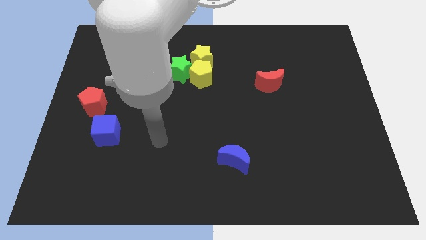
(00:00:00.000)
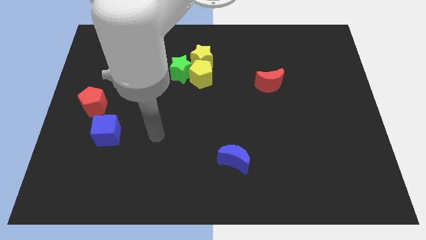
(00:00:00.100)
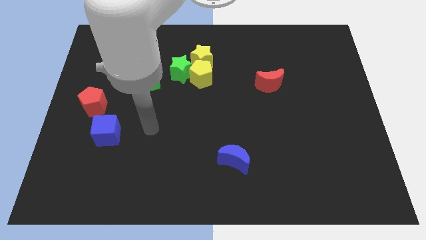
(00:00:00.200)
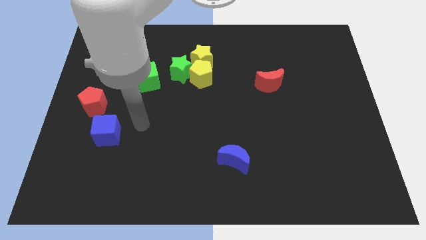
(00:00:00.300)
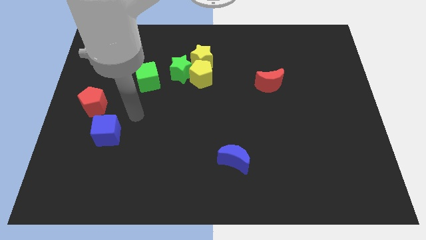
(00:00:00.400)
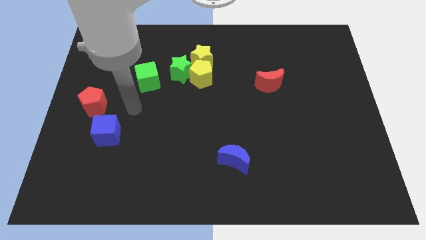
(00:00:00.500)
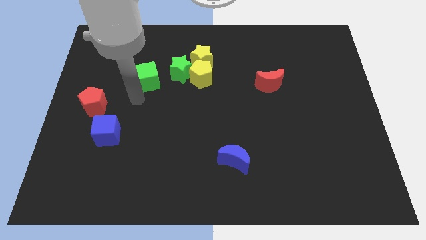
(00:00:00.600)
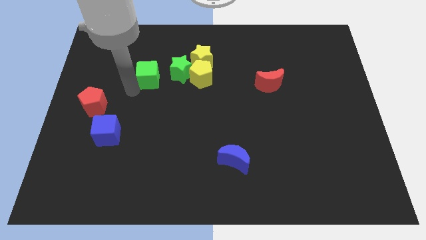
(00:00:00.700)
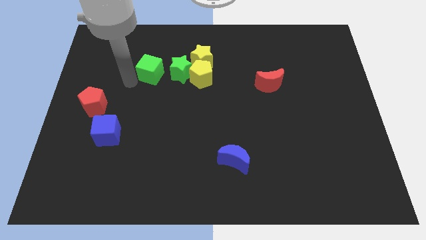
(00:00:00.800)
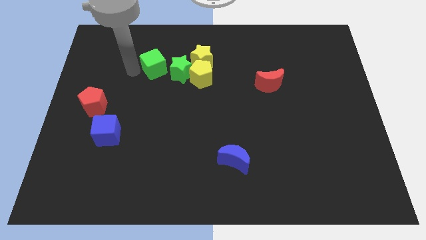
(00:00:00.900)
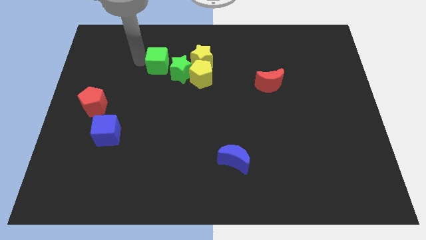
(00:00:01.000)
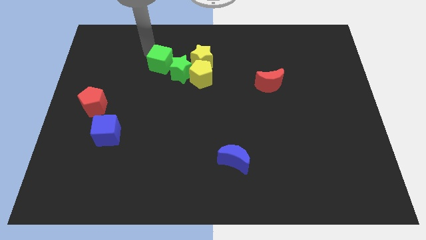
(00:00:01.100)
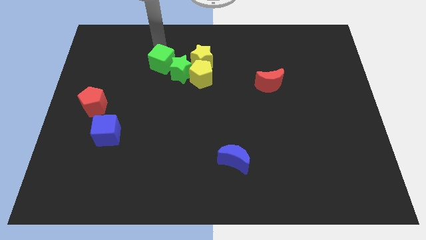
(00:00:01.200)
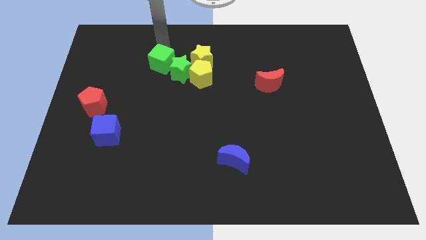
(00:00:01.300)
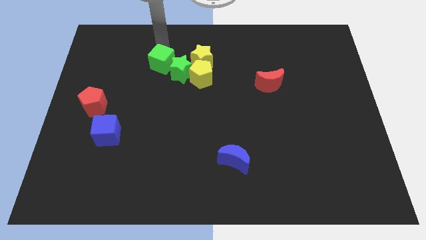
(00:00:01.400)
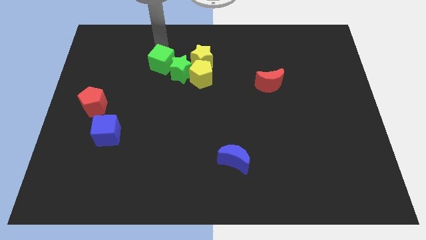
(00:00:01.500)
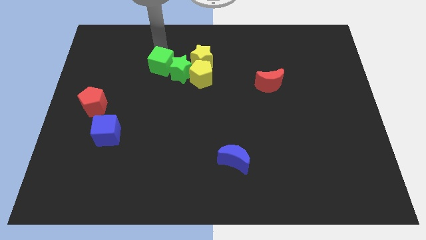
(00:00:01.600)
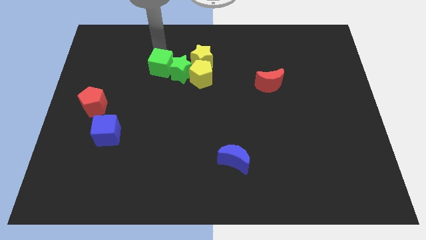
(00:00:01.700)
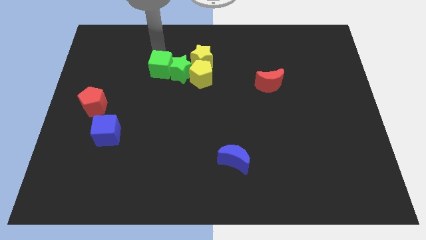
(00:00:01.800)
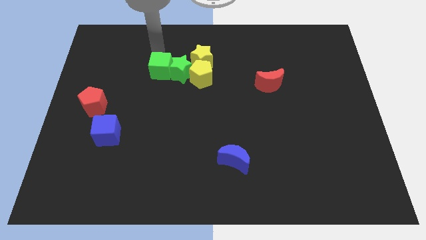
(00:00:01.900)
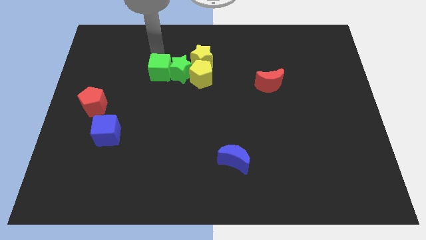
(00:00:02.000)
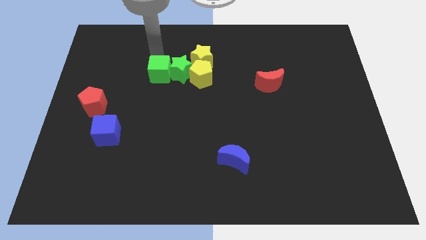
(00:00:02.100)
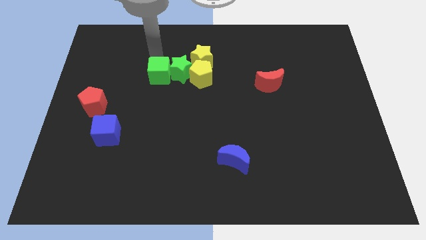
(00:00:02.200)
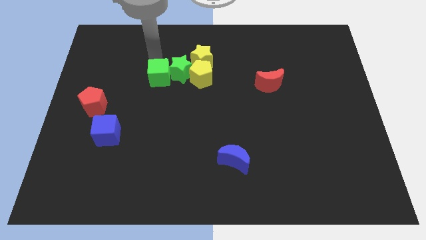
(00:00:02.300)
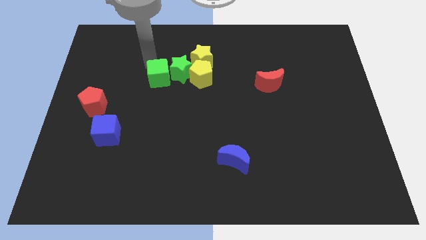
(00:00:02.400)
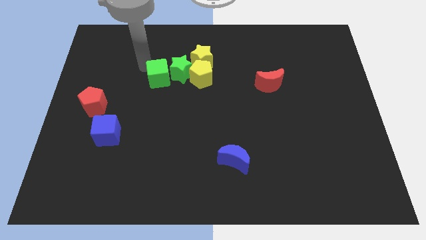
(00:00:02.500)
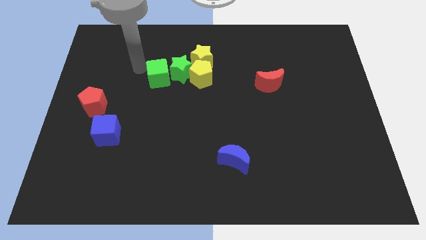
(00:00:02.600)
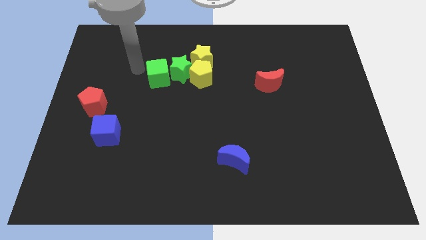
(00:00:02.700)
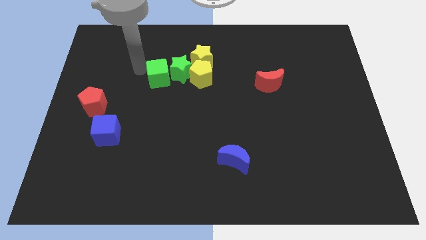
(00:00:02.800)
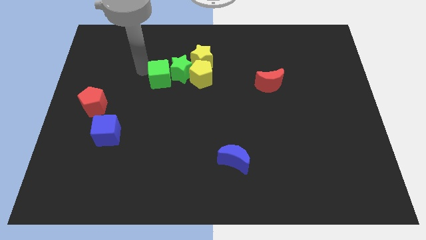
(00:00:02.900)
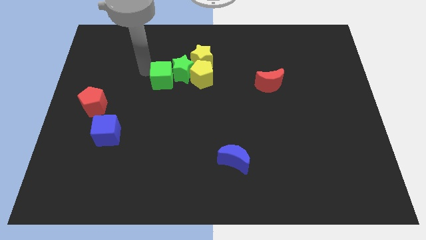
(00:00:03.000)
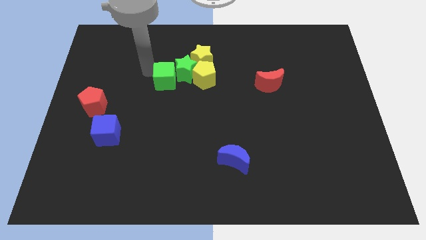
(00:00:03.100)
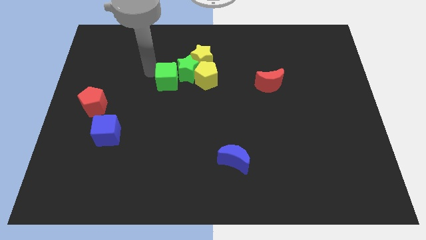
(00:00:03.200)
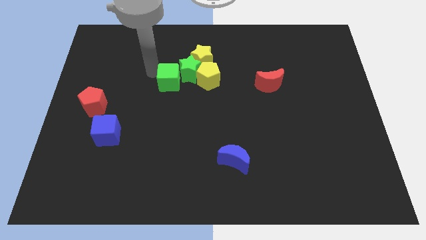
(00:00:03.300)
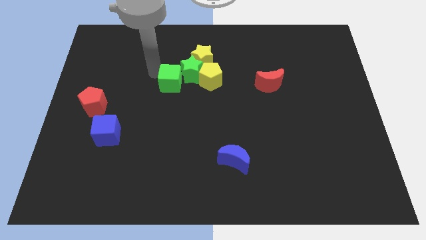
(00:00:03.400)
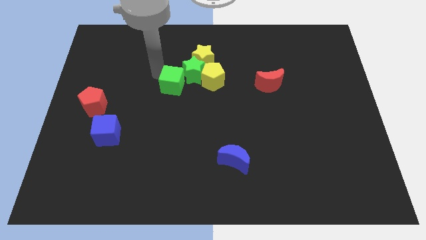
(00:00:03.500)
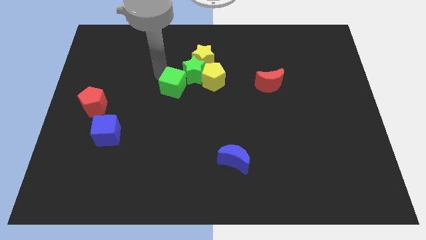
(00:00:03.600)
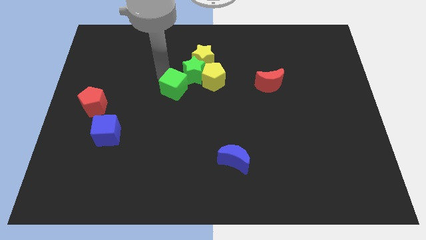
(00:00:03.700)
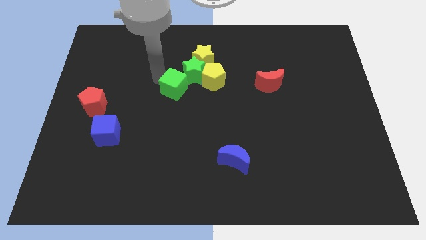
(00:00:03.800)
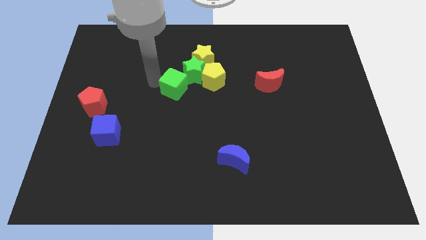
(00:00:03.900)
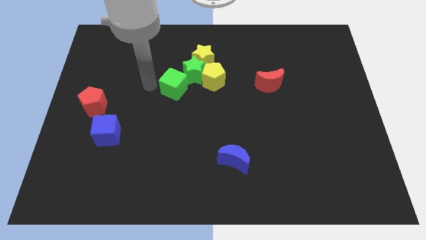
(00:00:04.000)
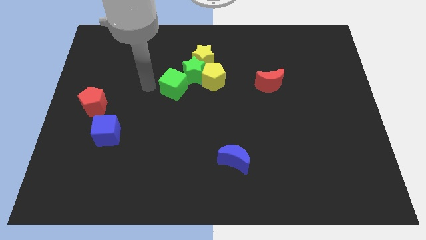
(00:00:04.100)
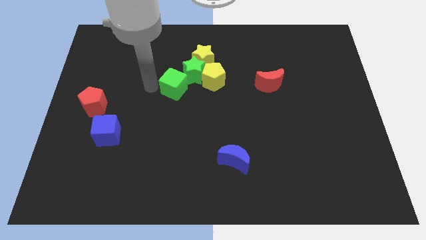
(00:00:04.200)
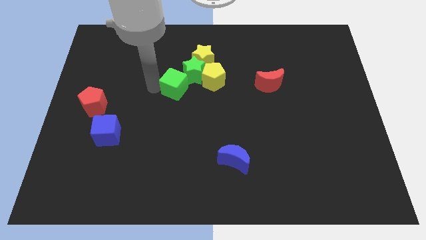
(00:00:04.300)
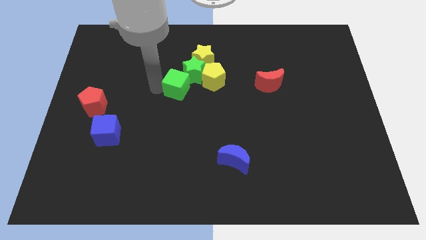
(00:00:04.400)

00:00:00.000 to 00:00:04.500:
slightly move the green cube to the right

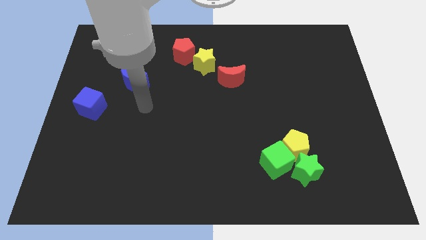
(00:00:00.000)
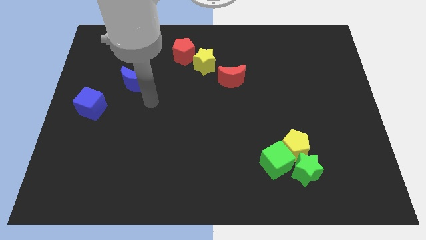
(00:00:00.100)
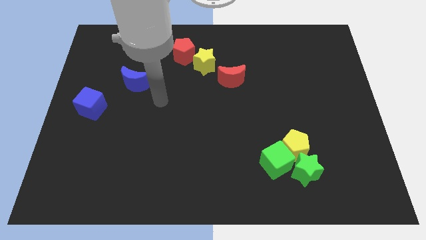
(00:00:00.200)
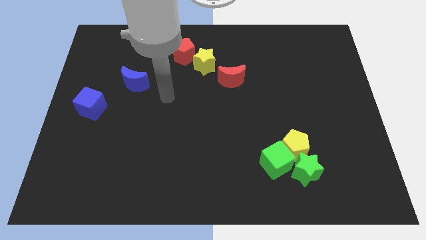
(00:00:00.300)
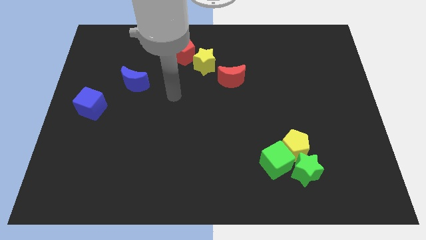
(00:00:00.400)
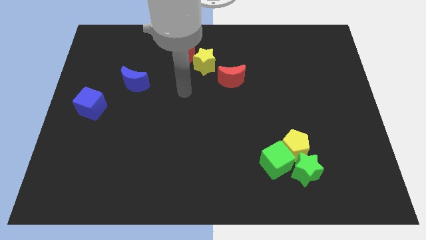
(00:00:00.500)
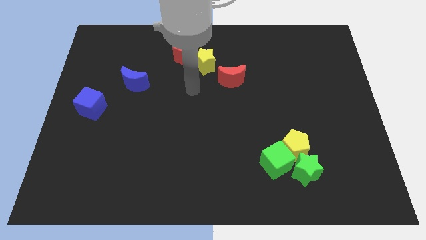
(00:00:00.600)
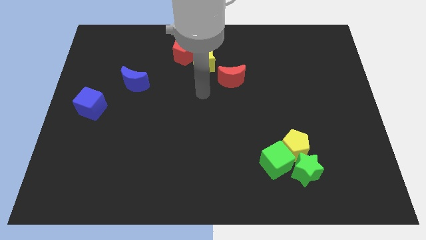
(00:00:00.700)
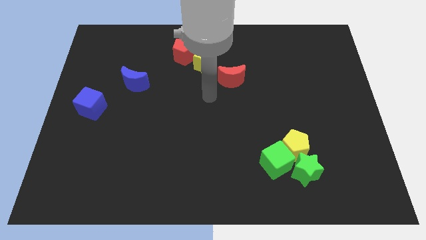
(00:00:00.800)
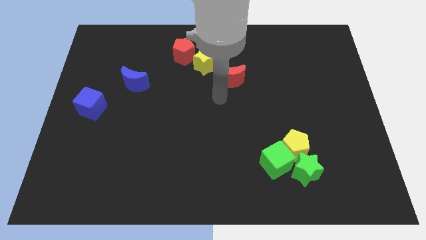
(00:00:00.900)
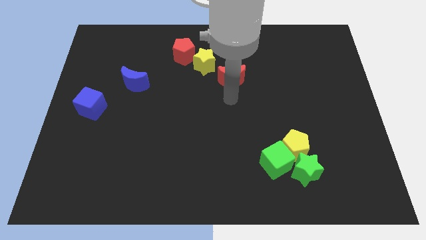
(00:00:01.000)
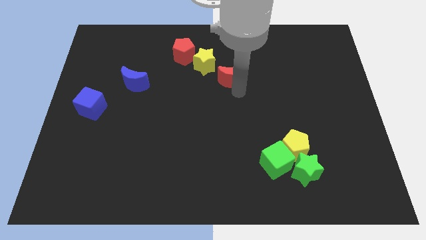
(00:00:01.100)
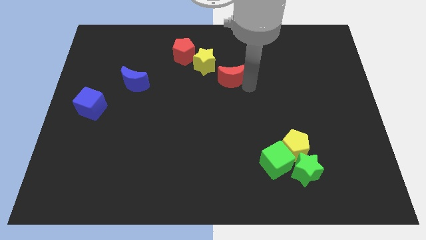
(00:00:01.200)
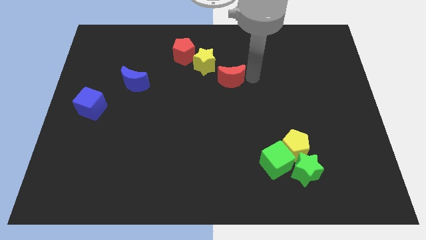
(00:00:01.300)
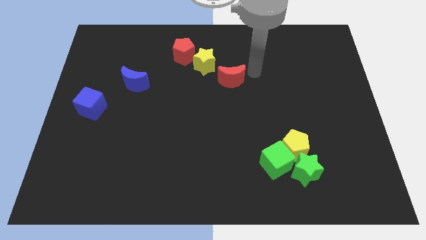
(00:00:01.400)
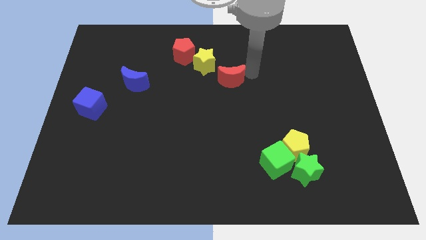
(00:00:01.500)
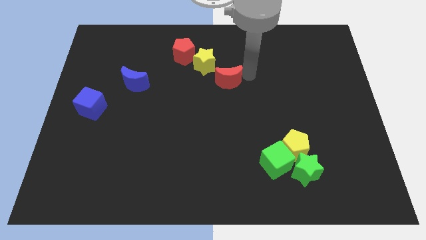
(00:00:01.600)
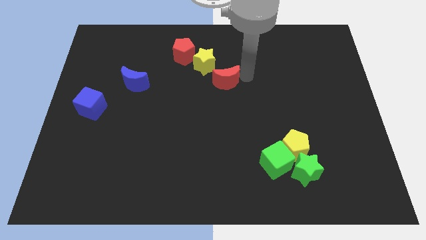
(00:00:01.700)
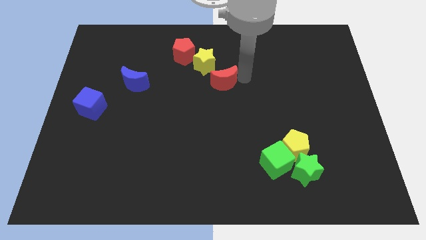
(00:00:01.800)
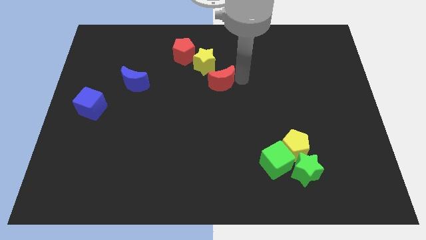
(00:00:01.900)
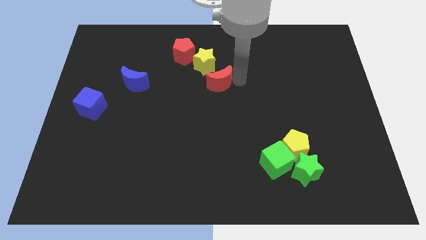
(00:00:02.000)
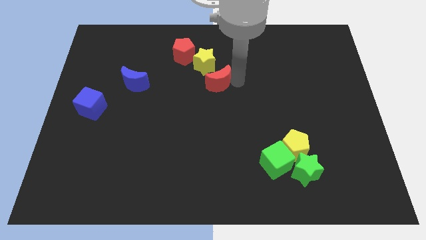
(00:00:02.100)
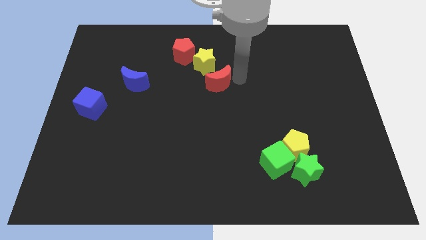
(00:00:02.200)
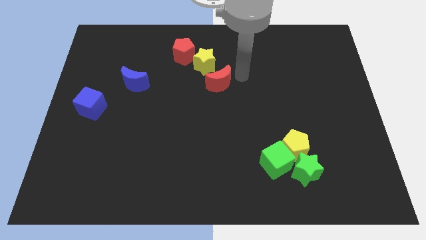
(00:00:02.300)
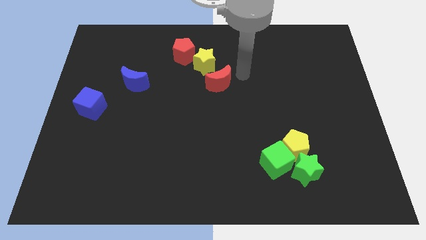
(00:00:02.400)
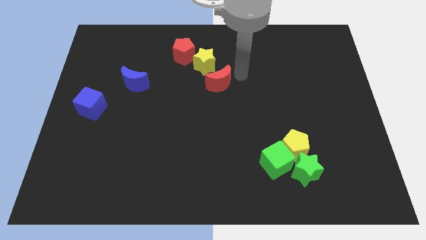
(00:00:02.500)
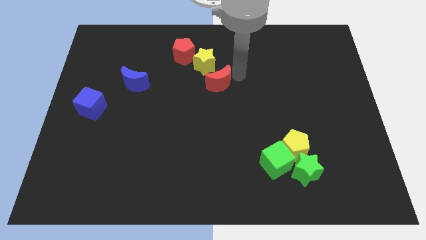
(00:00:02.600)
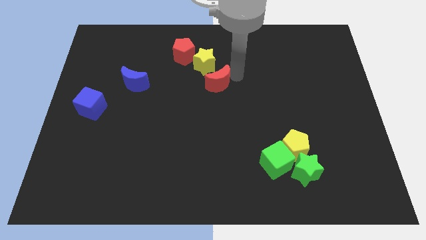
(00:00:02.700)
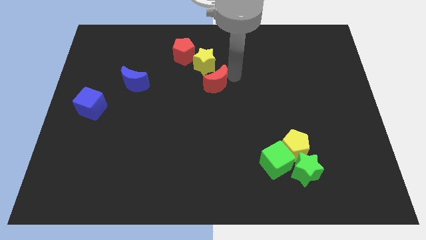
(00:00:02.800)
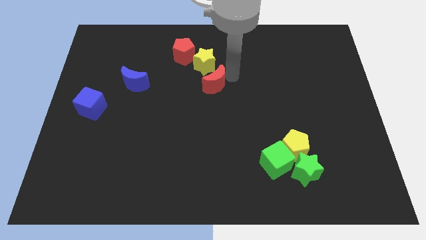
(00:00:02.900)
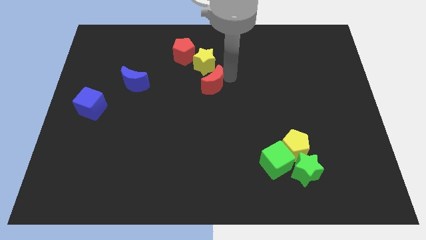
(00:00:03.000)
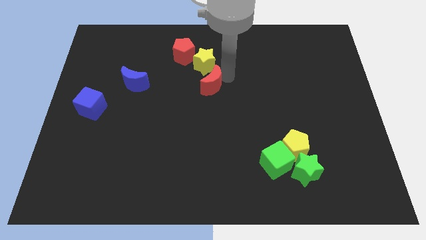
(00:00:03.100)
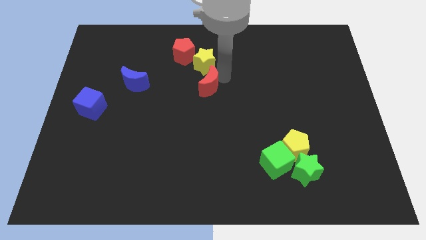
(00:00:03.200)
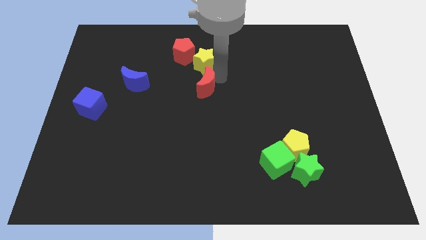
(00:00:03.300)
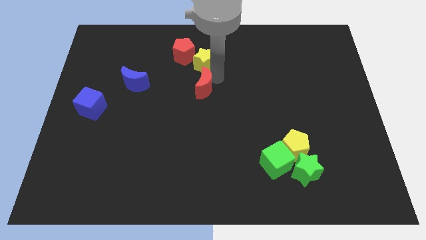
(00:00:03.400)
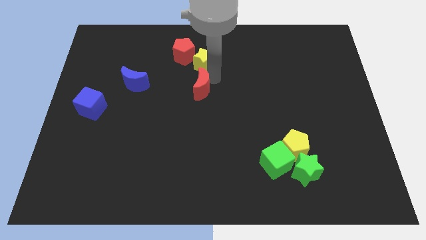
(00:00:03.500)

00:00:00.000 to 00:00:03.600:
slightly move the red moon left

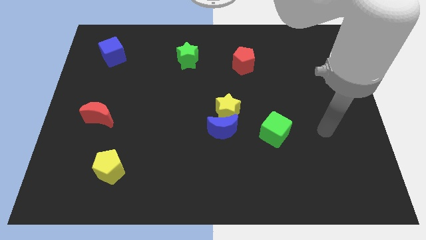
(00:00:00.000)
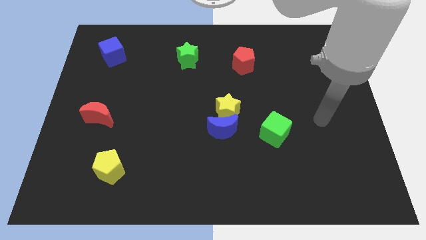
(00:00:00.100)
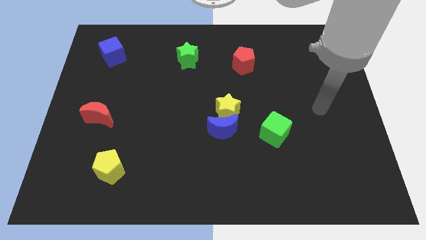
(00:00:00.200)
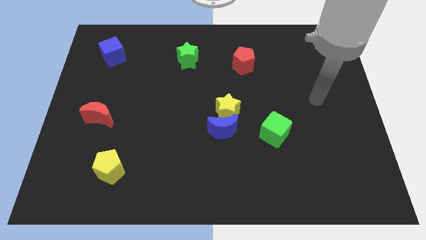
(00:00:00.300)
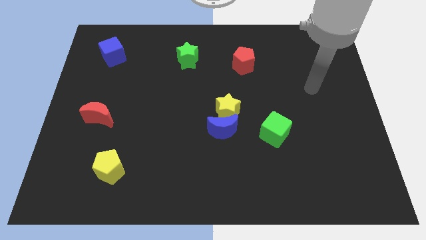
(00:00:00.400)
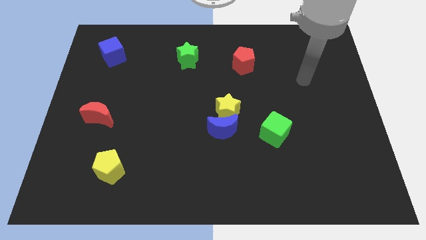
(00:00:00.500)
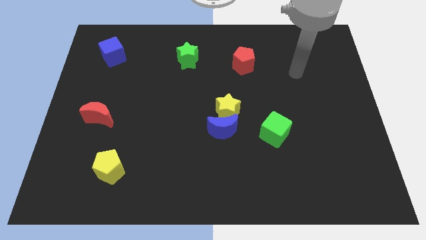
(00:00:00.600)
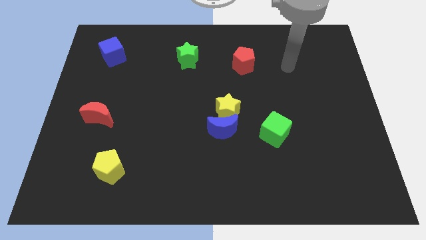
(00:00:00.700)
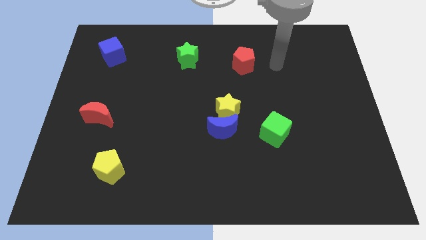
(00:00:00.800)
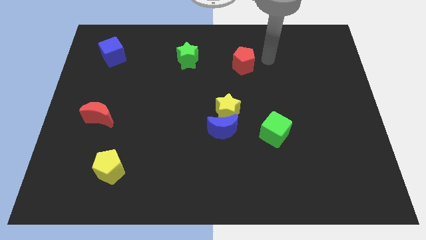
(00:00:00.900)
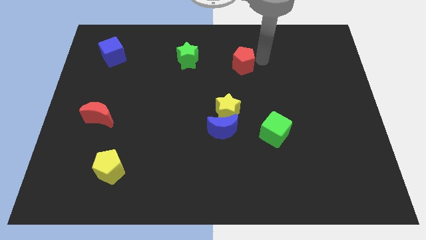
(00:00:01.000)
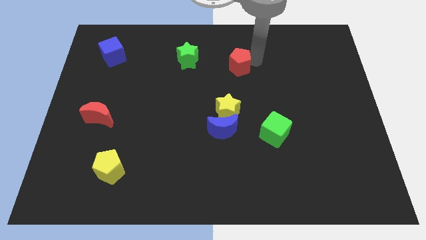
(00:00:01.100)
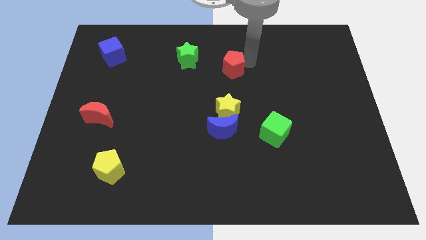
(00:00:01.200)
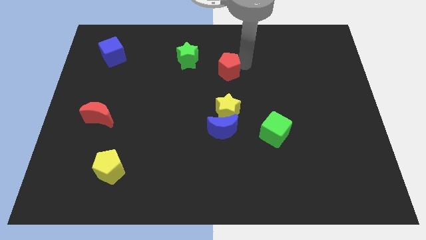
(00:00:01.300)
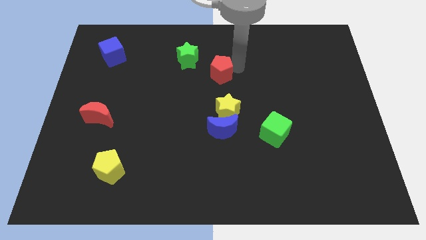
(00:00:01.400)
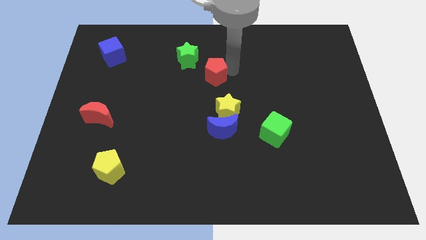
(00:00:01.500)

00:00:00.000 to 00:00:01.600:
push the red pentagon somewhat to the left
